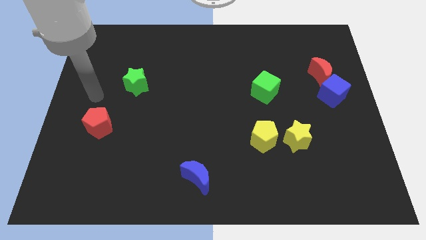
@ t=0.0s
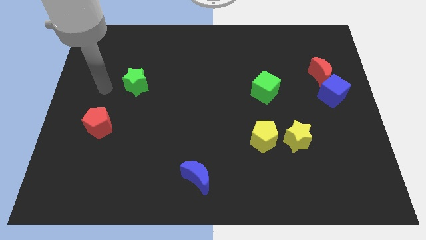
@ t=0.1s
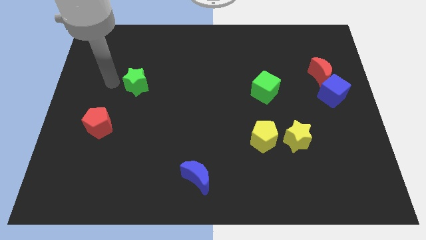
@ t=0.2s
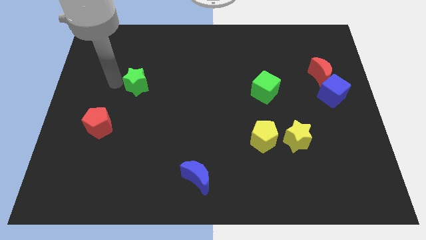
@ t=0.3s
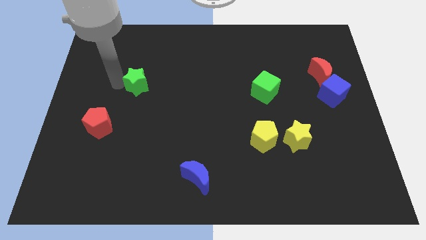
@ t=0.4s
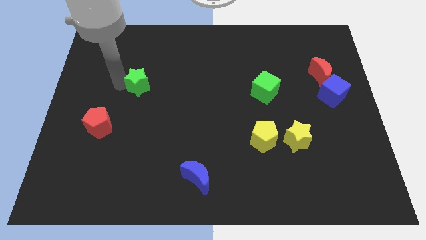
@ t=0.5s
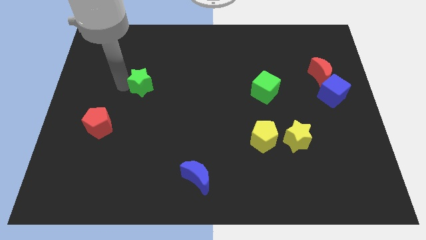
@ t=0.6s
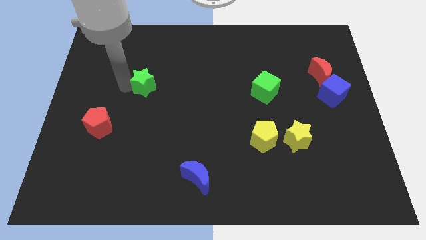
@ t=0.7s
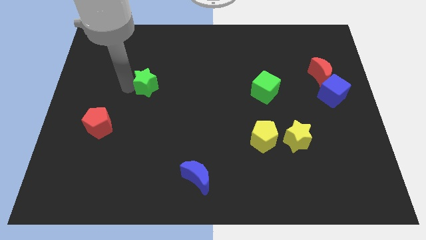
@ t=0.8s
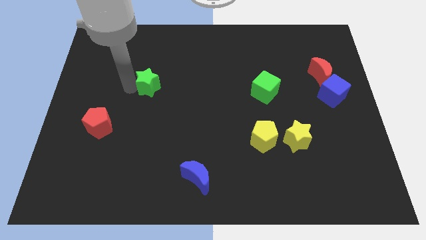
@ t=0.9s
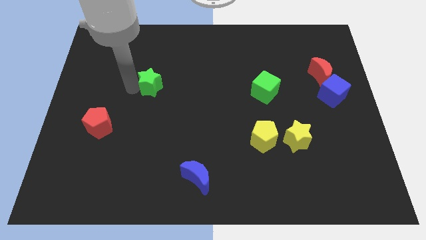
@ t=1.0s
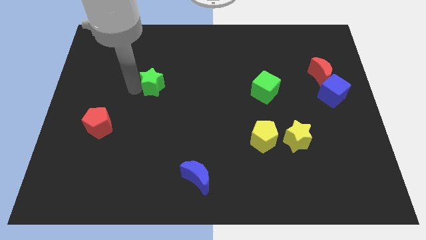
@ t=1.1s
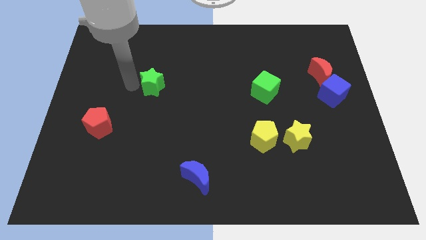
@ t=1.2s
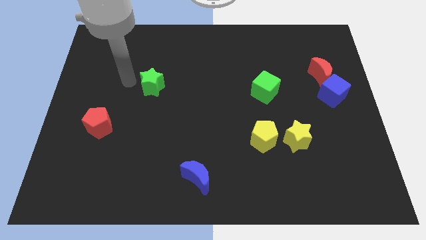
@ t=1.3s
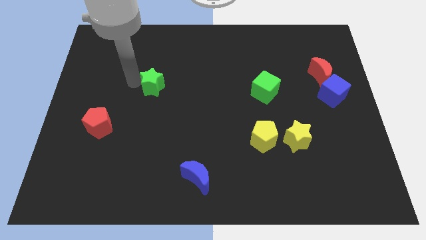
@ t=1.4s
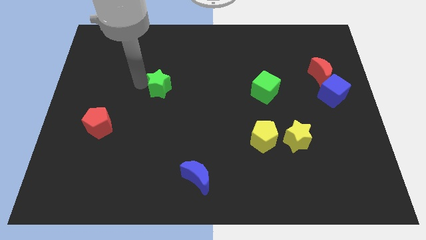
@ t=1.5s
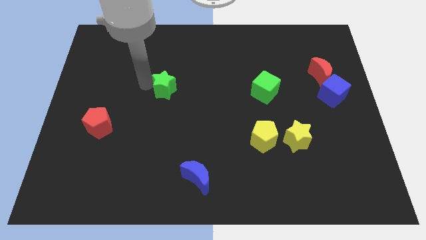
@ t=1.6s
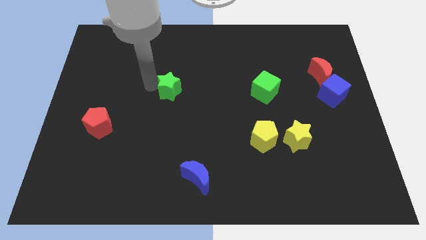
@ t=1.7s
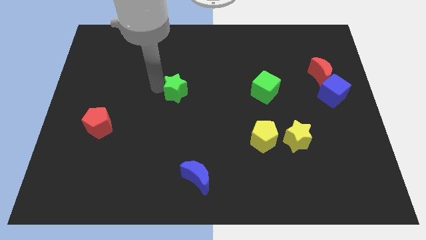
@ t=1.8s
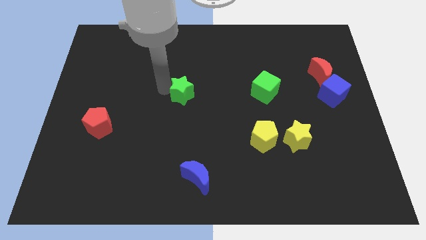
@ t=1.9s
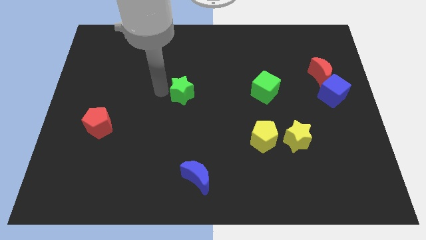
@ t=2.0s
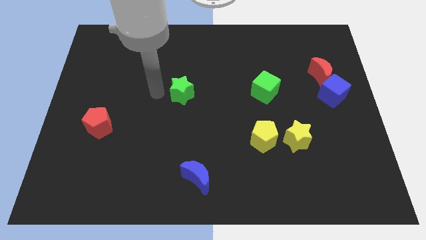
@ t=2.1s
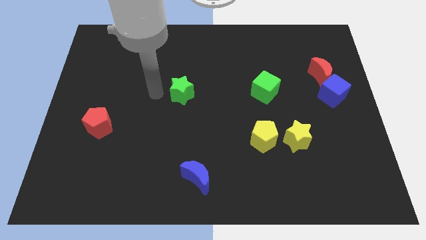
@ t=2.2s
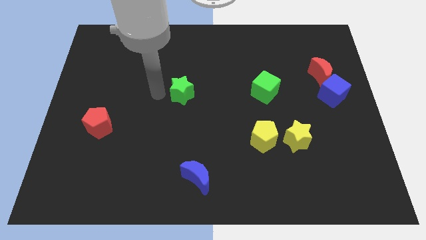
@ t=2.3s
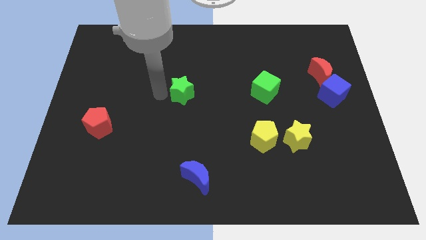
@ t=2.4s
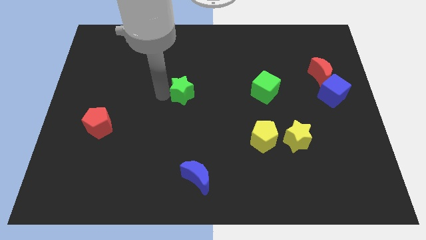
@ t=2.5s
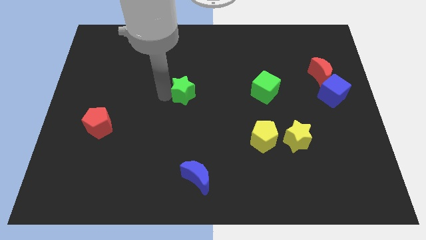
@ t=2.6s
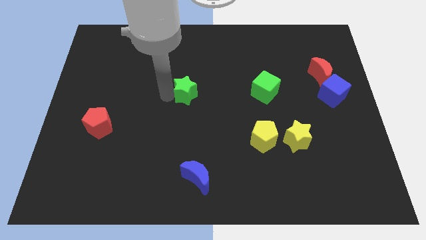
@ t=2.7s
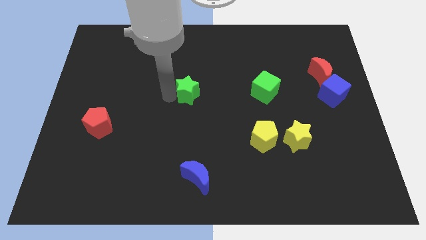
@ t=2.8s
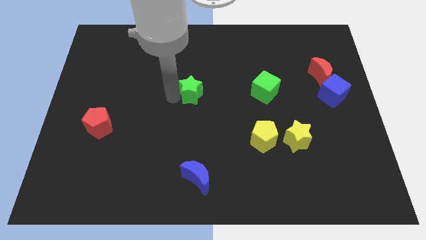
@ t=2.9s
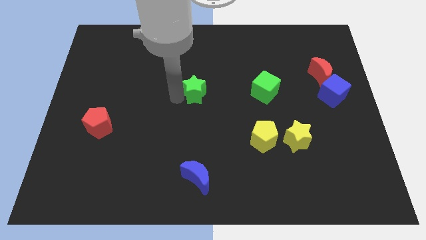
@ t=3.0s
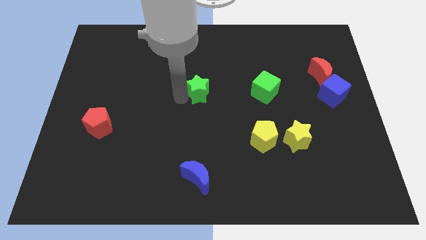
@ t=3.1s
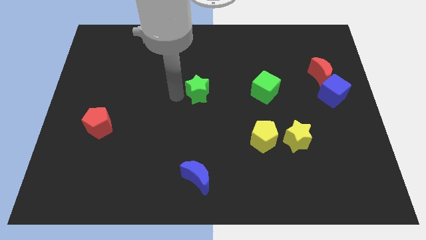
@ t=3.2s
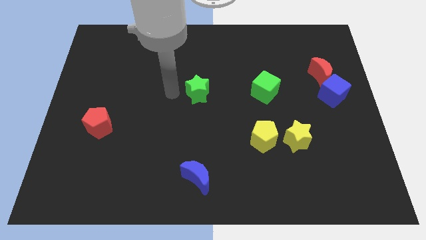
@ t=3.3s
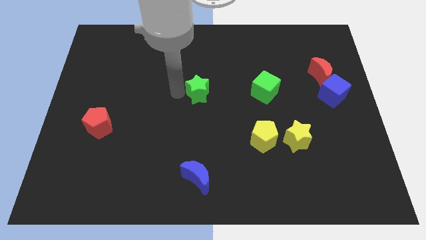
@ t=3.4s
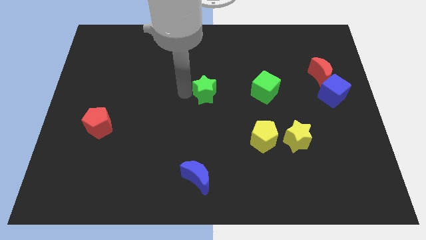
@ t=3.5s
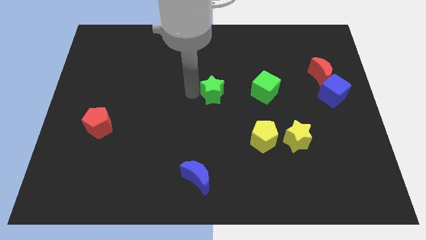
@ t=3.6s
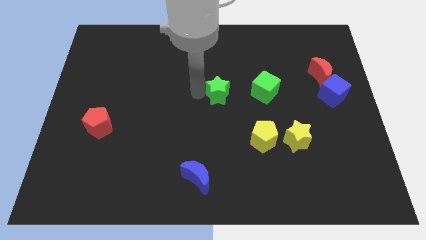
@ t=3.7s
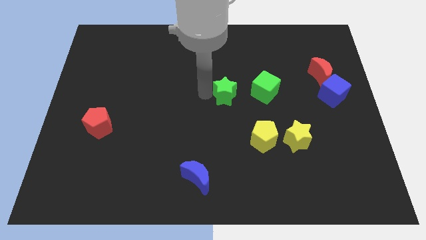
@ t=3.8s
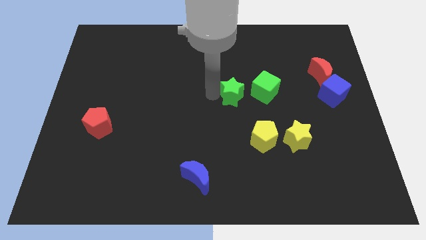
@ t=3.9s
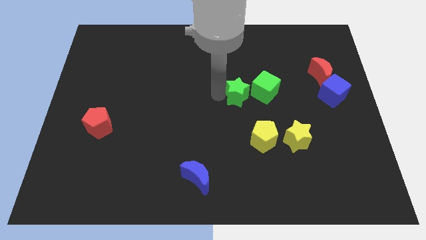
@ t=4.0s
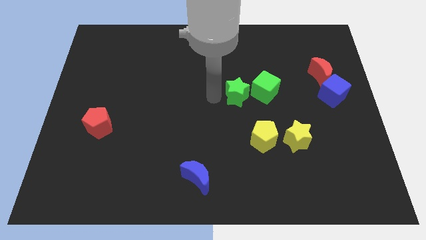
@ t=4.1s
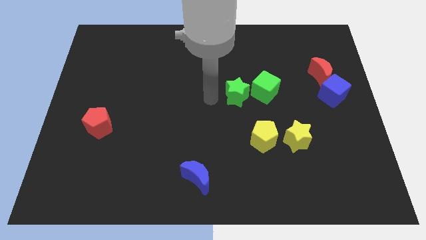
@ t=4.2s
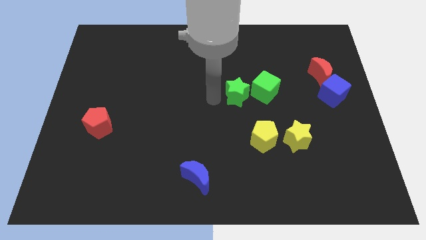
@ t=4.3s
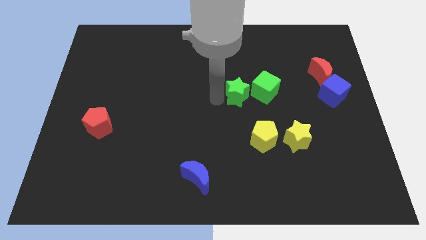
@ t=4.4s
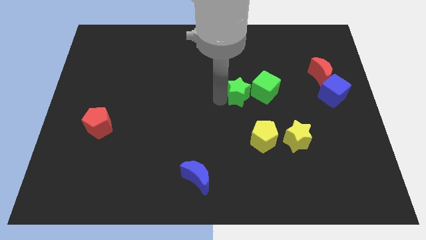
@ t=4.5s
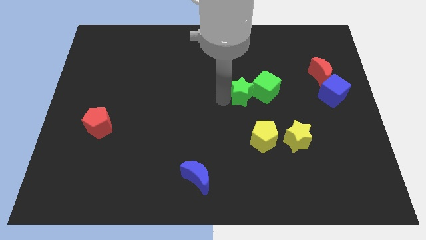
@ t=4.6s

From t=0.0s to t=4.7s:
push the green star close to the green cube

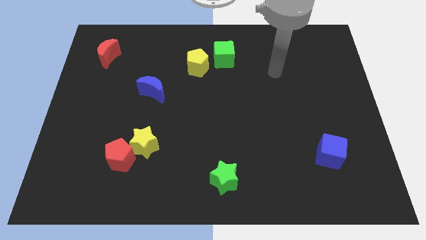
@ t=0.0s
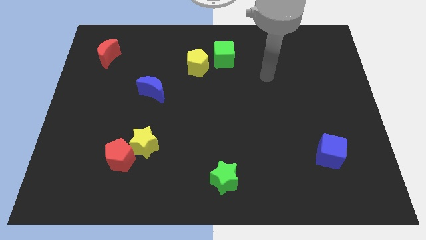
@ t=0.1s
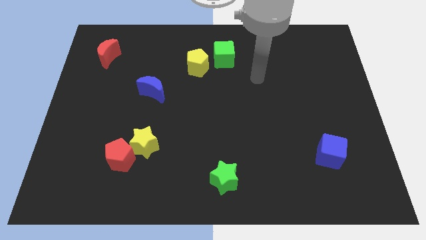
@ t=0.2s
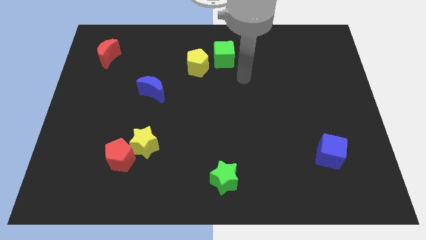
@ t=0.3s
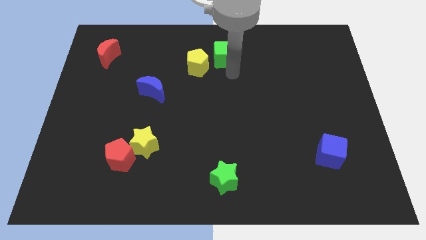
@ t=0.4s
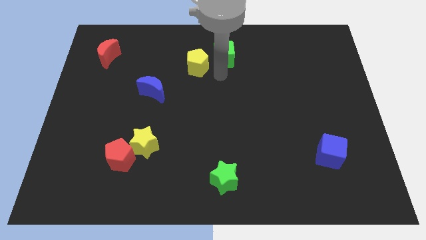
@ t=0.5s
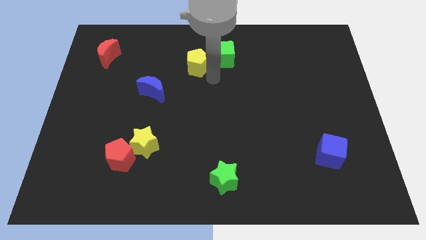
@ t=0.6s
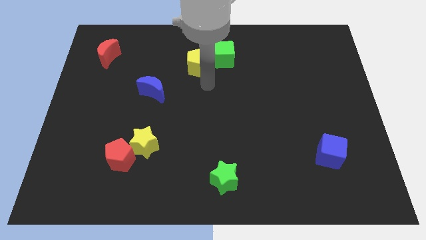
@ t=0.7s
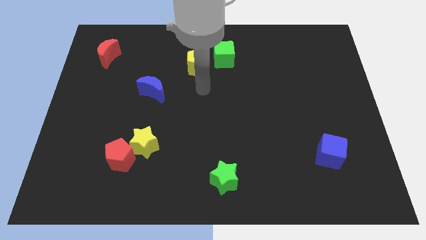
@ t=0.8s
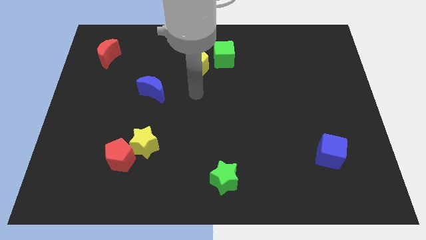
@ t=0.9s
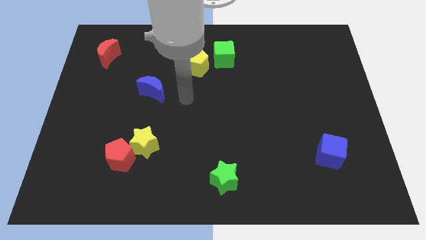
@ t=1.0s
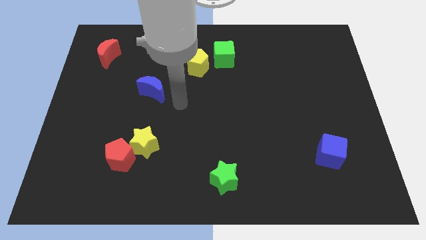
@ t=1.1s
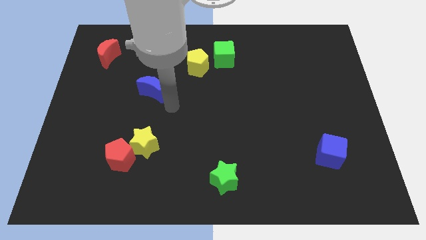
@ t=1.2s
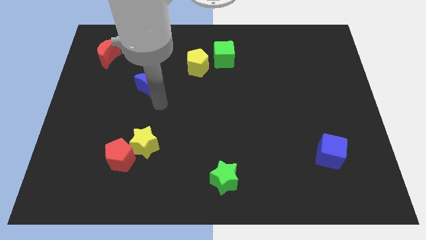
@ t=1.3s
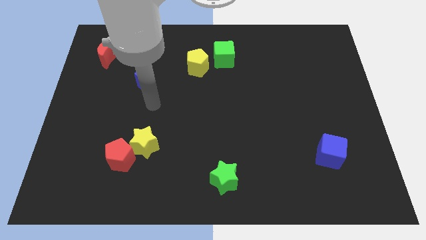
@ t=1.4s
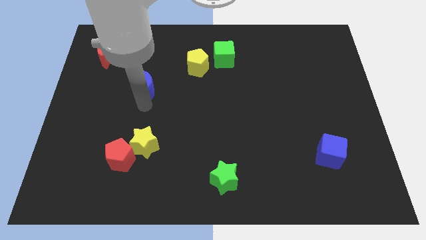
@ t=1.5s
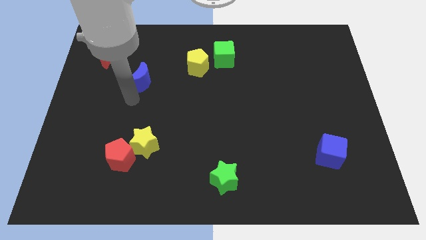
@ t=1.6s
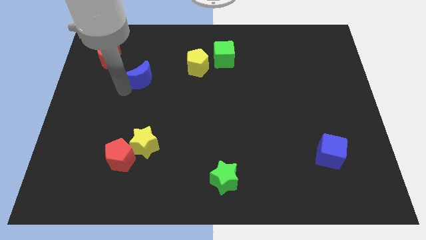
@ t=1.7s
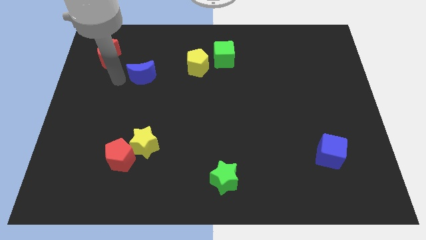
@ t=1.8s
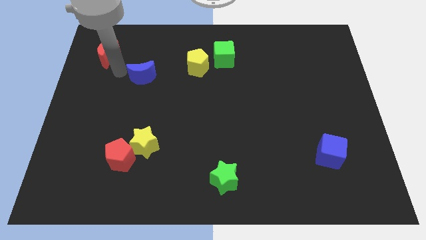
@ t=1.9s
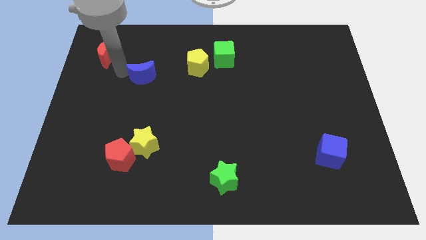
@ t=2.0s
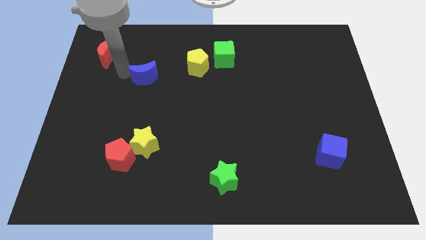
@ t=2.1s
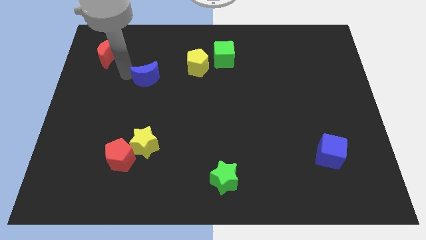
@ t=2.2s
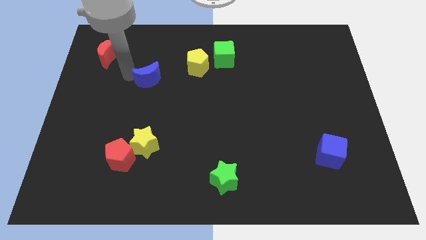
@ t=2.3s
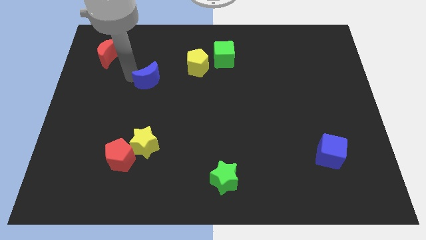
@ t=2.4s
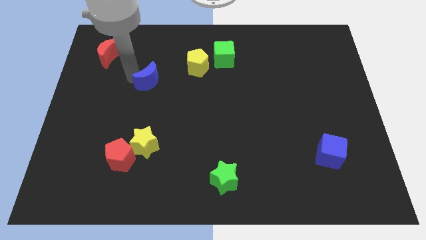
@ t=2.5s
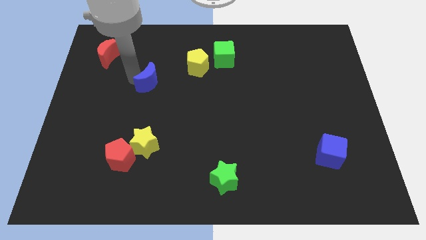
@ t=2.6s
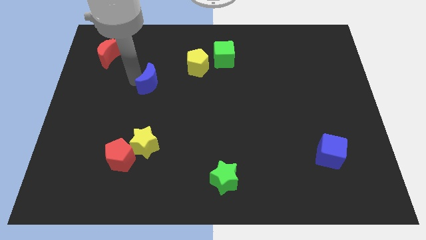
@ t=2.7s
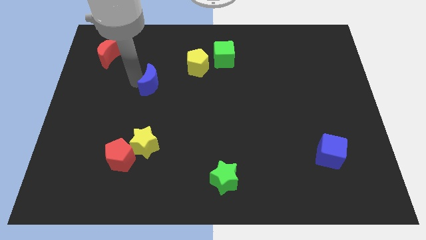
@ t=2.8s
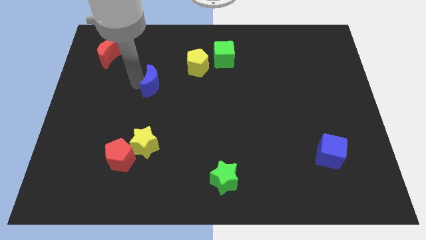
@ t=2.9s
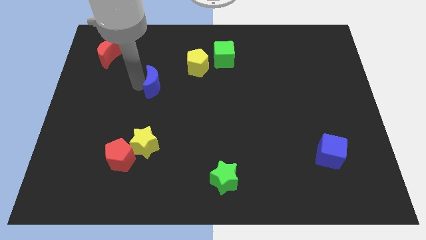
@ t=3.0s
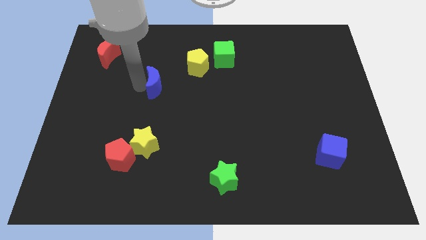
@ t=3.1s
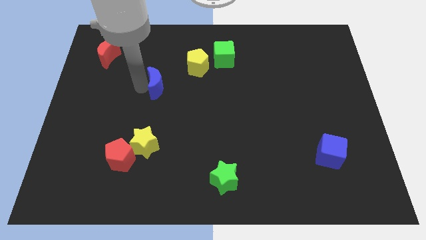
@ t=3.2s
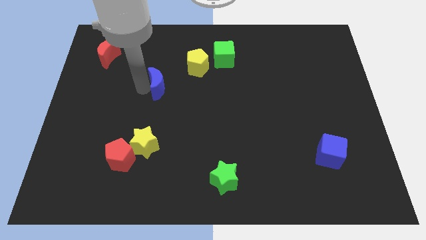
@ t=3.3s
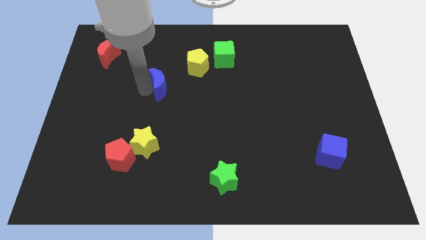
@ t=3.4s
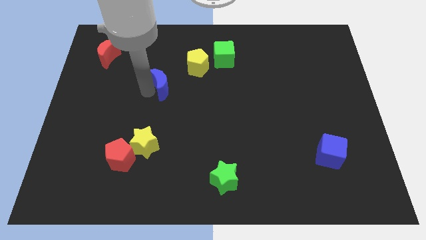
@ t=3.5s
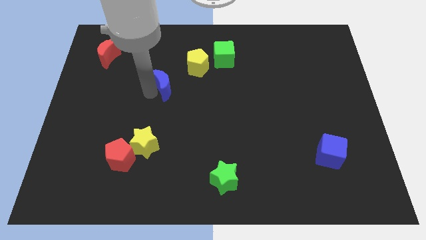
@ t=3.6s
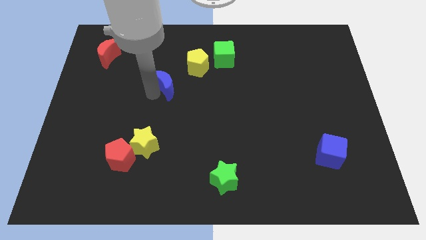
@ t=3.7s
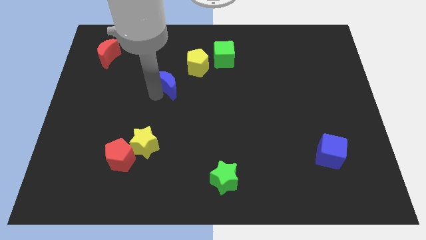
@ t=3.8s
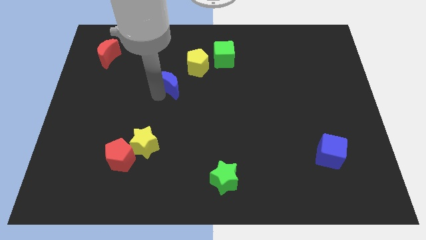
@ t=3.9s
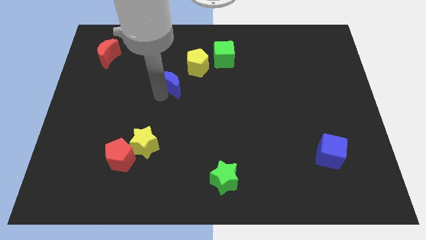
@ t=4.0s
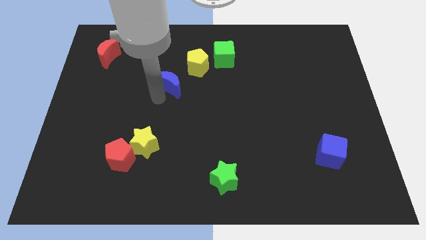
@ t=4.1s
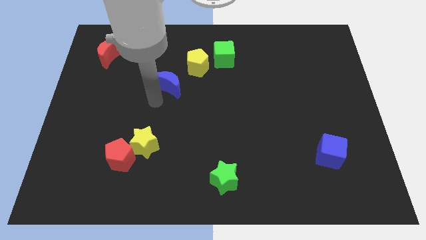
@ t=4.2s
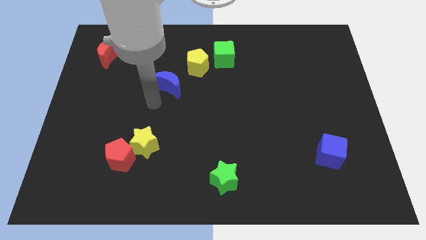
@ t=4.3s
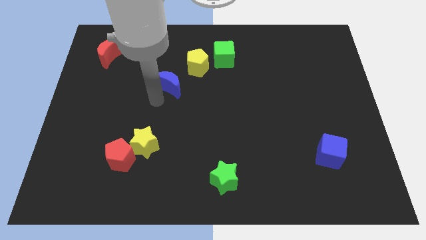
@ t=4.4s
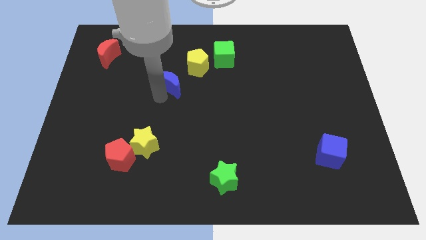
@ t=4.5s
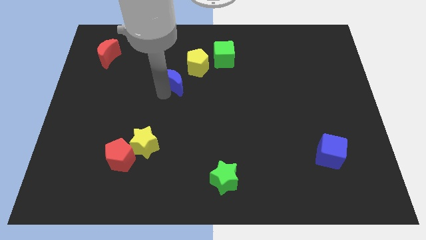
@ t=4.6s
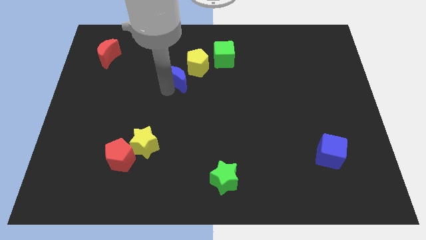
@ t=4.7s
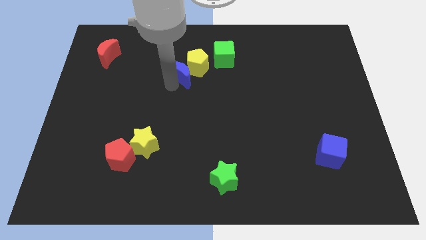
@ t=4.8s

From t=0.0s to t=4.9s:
push the blue moon to the yellow pentagon
